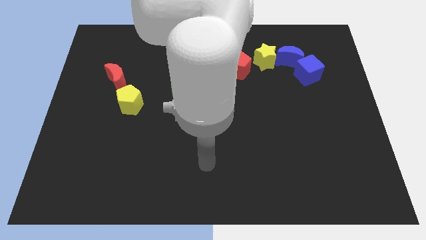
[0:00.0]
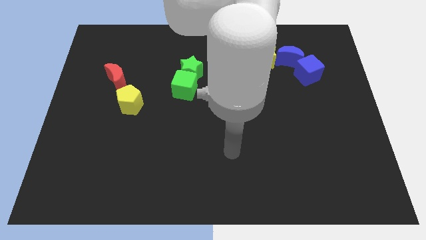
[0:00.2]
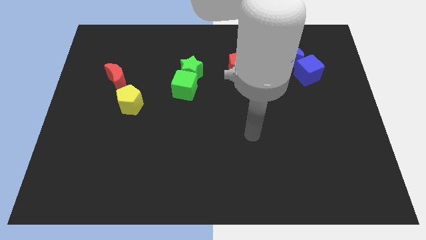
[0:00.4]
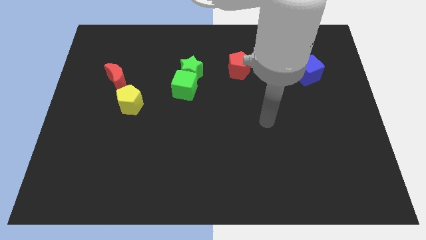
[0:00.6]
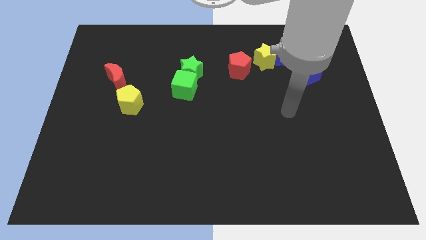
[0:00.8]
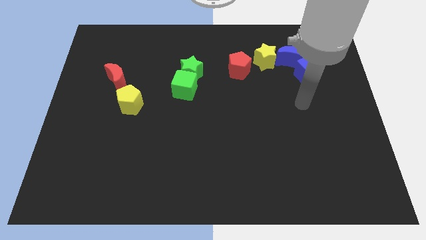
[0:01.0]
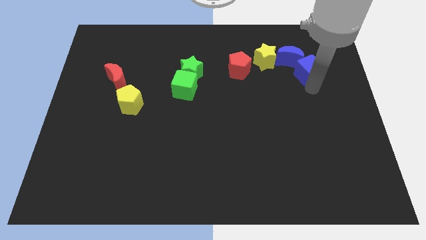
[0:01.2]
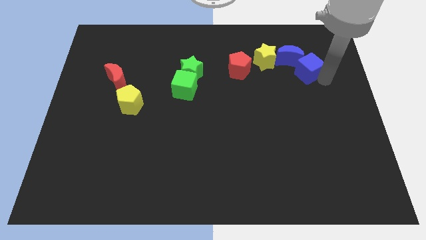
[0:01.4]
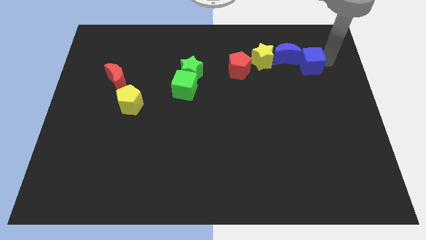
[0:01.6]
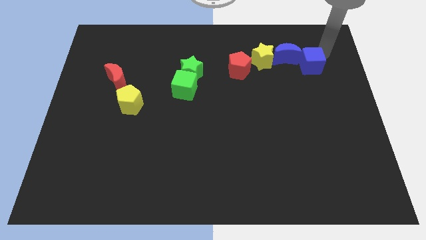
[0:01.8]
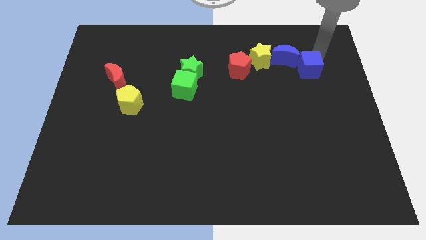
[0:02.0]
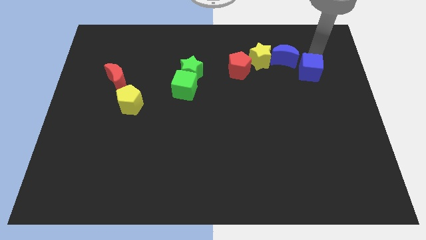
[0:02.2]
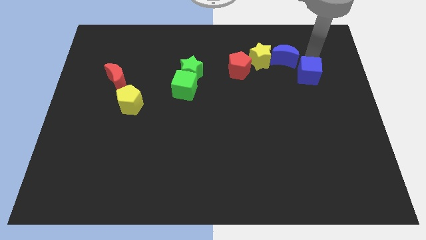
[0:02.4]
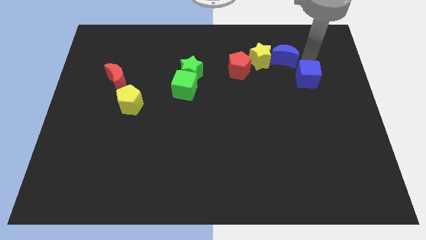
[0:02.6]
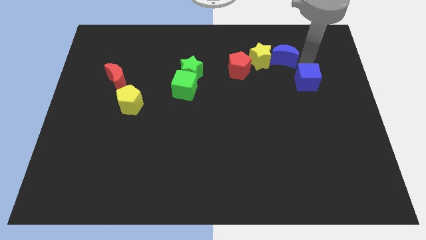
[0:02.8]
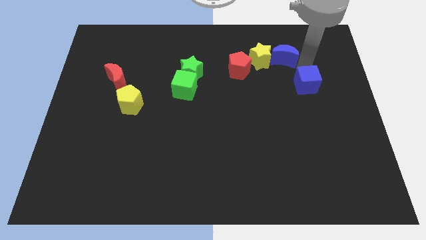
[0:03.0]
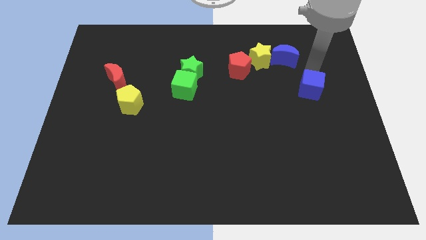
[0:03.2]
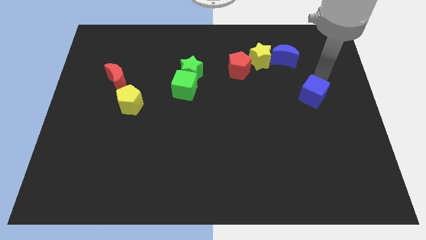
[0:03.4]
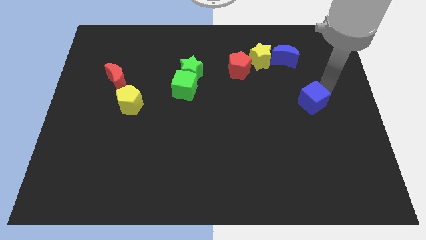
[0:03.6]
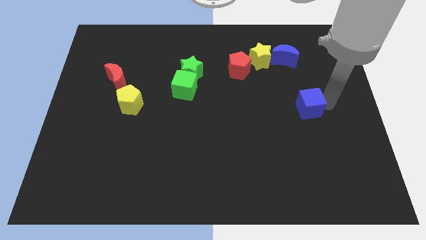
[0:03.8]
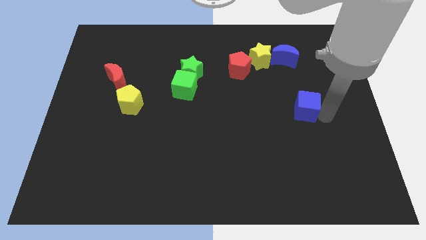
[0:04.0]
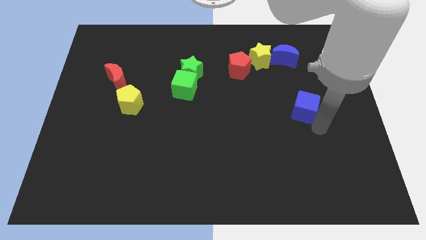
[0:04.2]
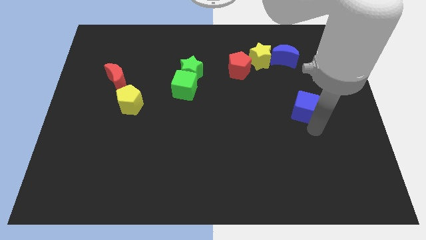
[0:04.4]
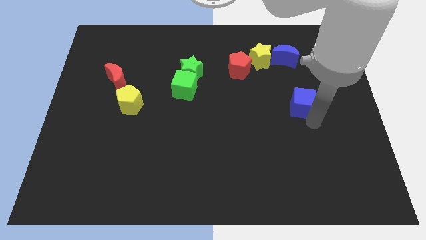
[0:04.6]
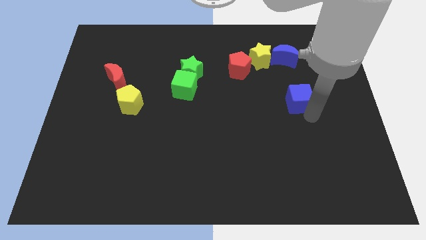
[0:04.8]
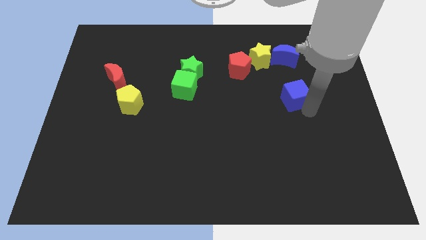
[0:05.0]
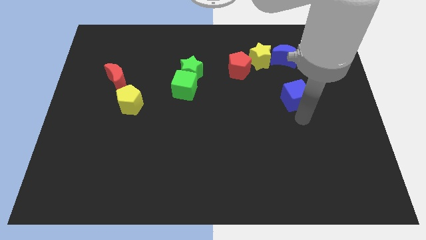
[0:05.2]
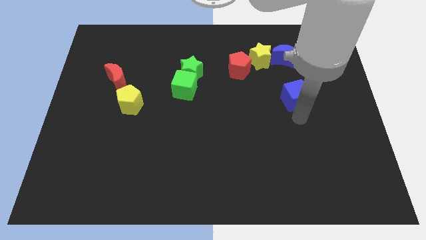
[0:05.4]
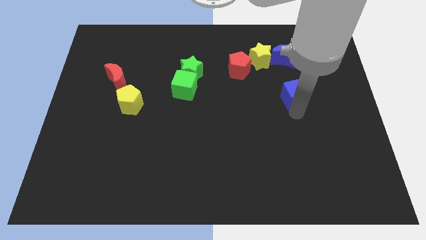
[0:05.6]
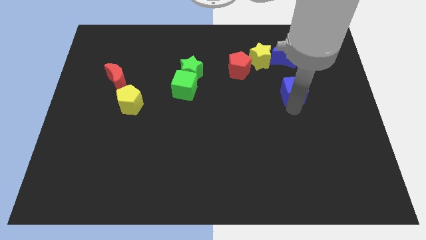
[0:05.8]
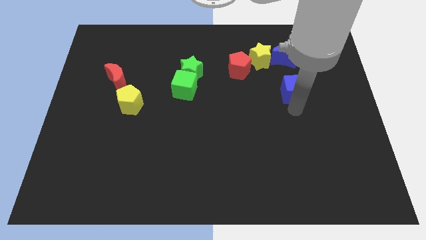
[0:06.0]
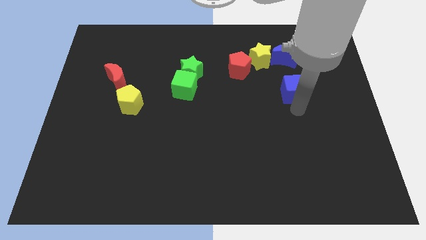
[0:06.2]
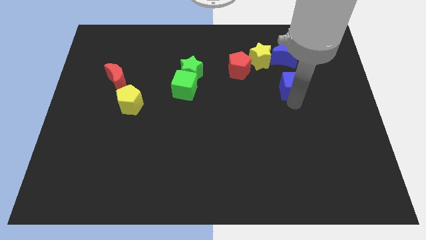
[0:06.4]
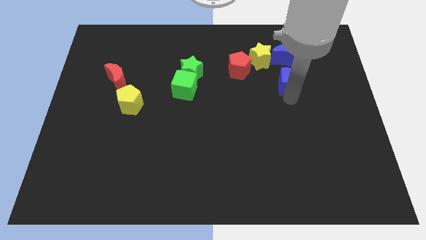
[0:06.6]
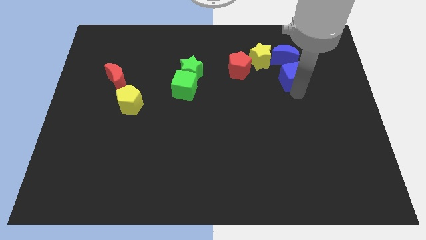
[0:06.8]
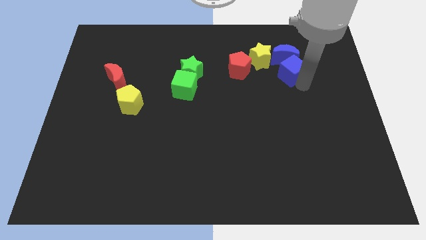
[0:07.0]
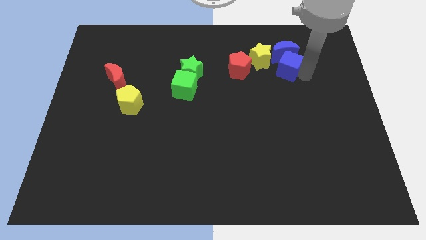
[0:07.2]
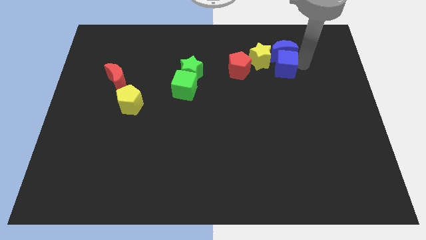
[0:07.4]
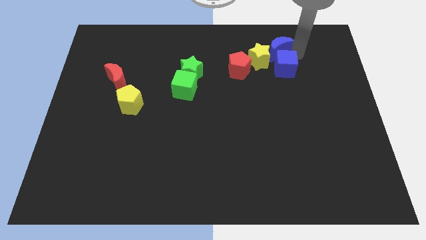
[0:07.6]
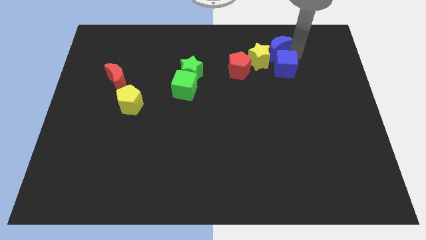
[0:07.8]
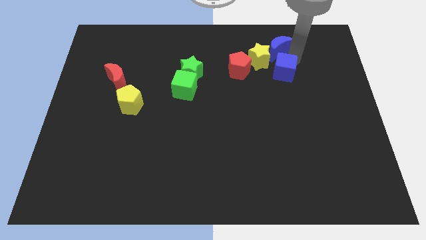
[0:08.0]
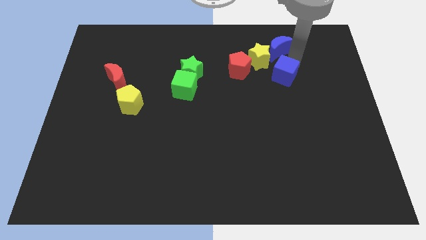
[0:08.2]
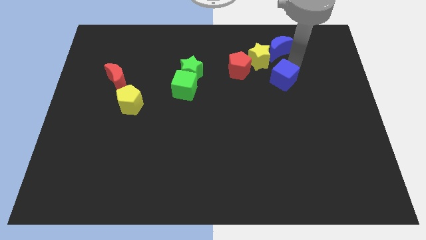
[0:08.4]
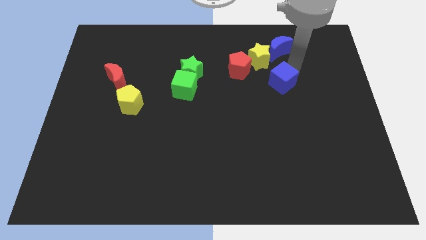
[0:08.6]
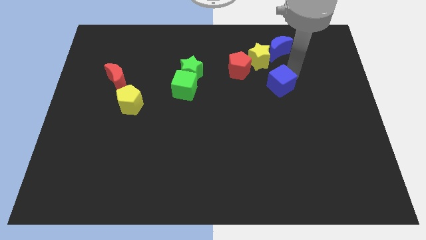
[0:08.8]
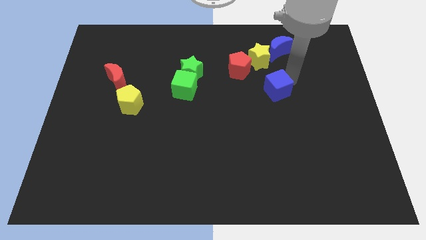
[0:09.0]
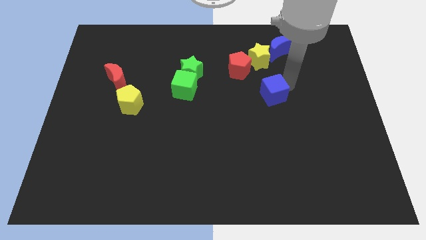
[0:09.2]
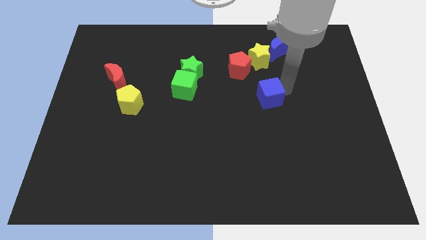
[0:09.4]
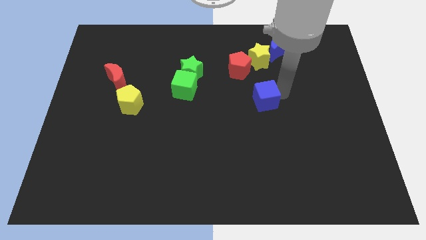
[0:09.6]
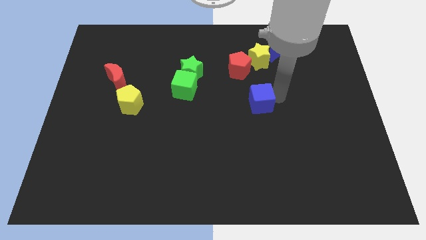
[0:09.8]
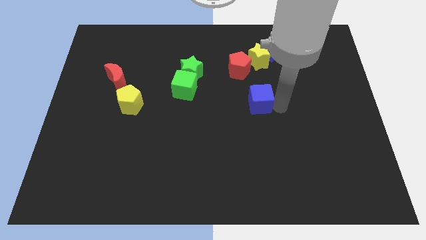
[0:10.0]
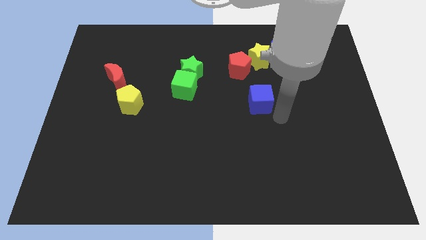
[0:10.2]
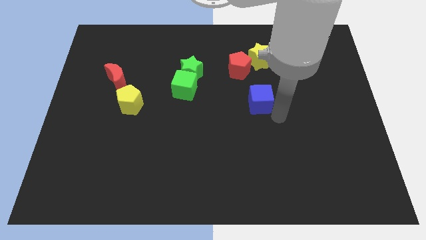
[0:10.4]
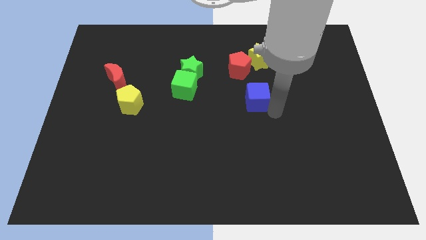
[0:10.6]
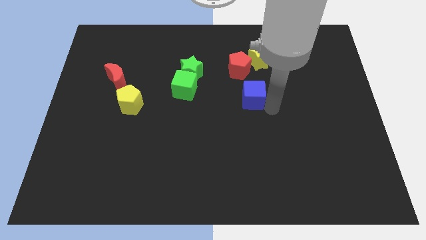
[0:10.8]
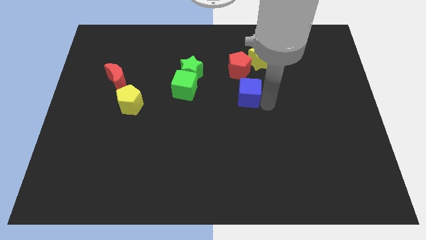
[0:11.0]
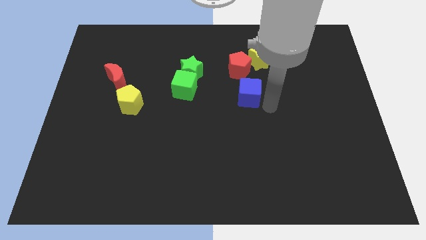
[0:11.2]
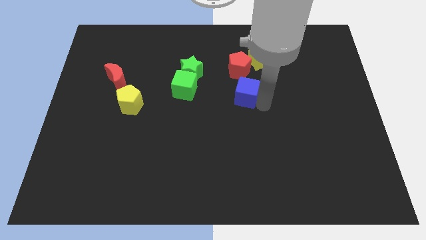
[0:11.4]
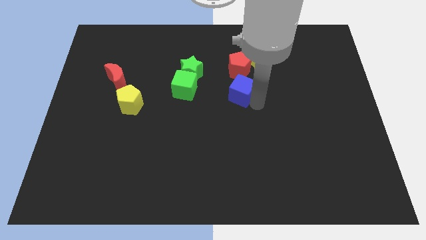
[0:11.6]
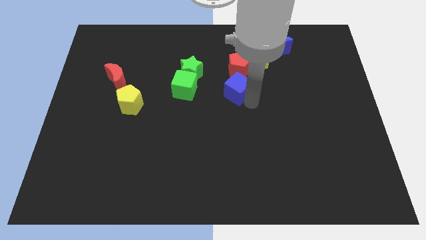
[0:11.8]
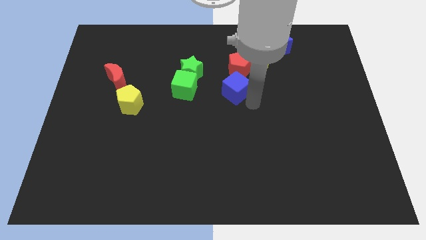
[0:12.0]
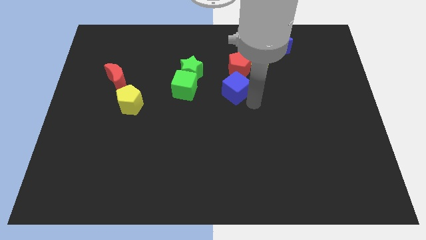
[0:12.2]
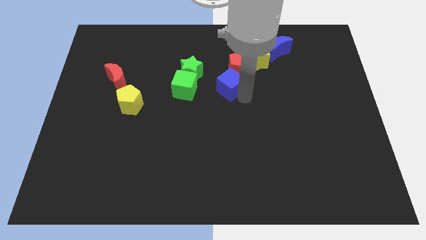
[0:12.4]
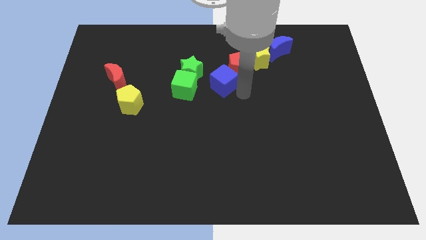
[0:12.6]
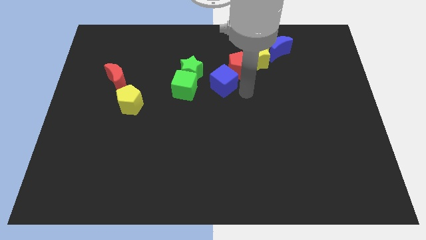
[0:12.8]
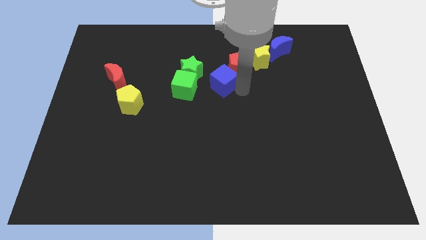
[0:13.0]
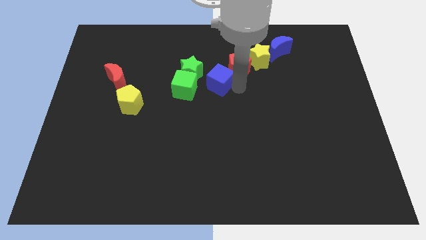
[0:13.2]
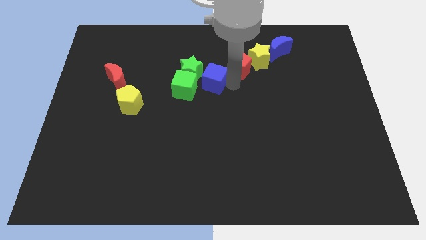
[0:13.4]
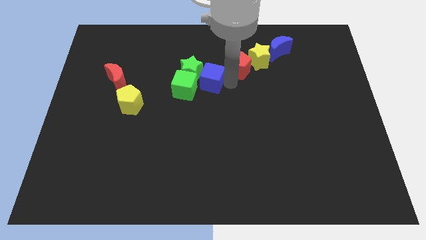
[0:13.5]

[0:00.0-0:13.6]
push the blue cube to the green star

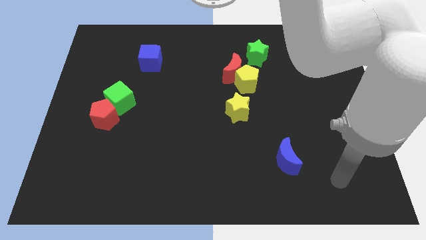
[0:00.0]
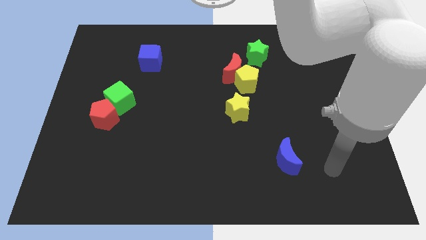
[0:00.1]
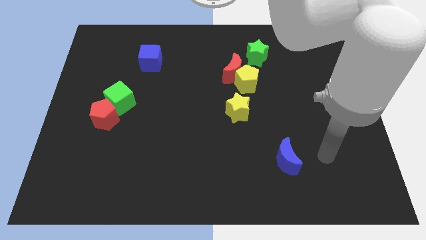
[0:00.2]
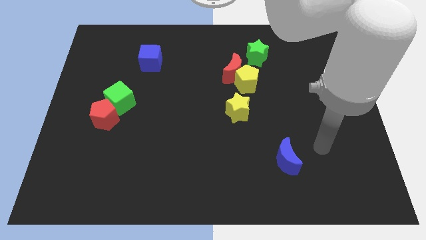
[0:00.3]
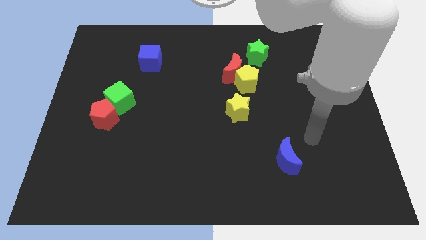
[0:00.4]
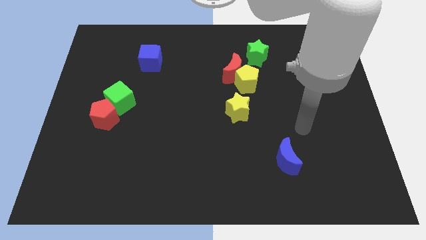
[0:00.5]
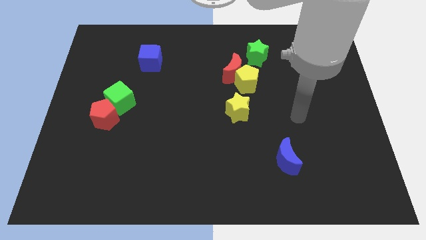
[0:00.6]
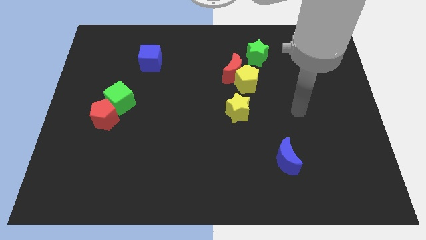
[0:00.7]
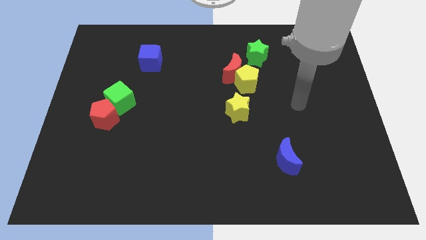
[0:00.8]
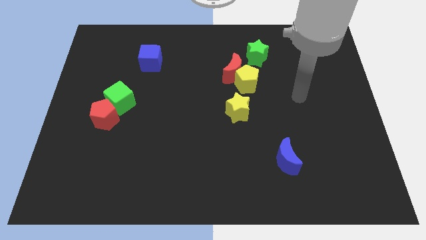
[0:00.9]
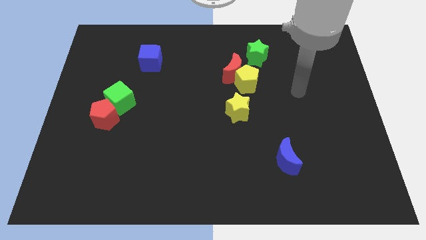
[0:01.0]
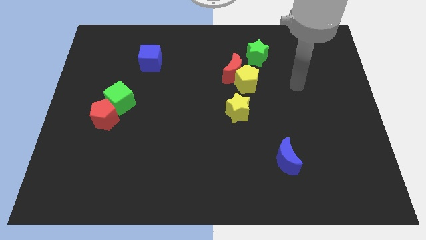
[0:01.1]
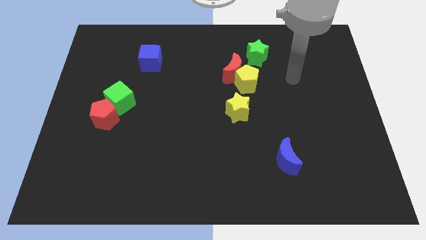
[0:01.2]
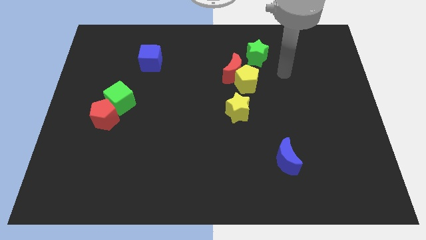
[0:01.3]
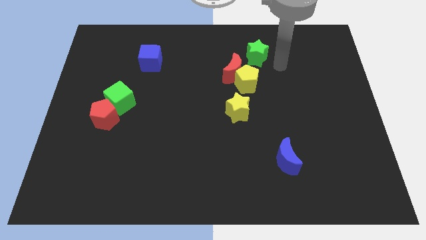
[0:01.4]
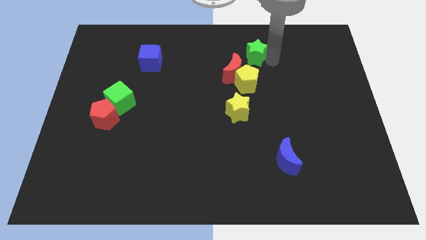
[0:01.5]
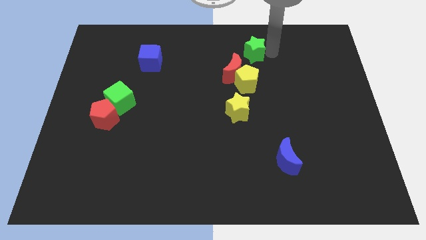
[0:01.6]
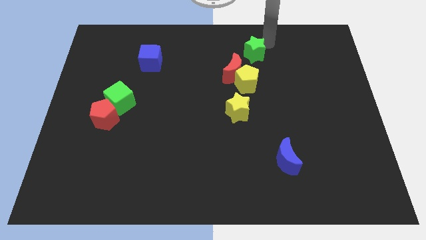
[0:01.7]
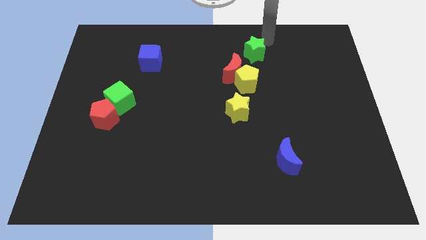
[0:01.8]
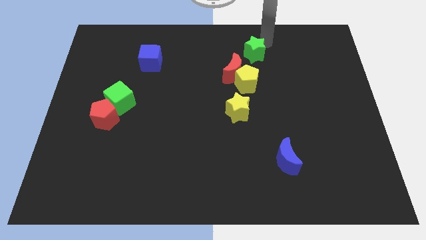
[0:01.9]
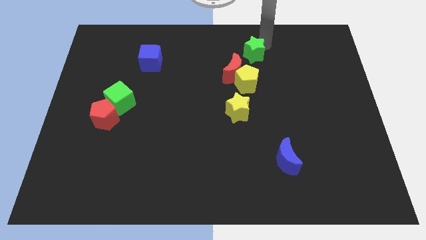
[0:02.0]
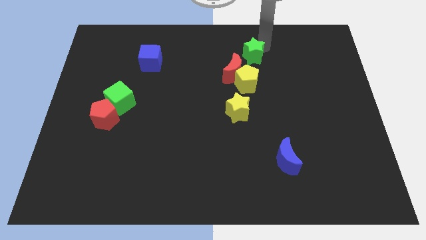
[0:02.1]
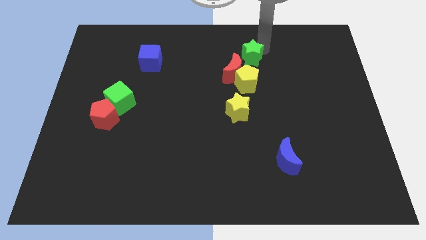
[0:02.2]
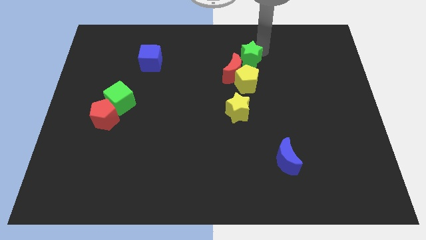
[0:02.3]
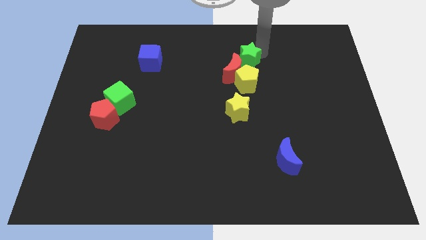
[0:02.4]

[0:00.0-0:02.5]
push the green star to the red moon
